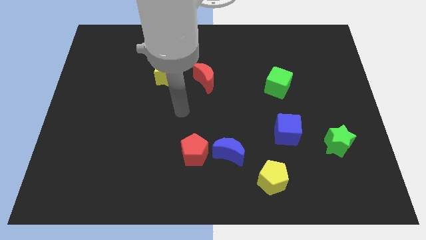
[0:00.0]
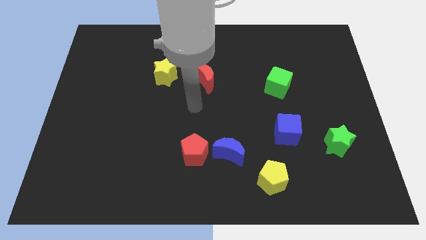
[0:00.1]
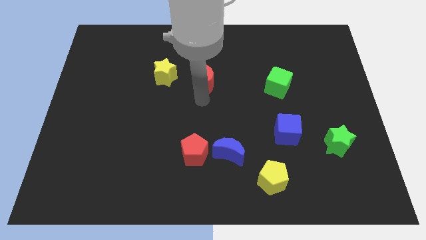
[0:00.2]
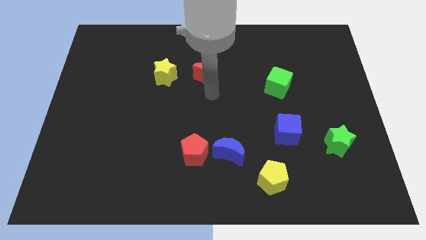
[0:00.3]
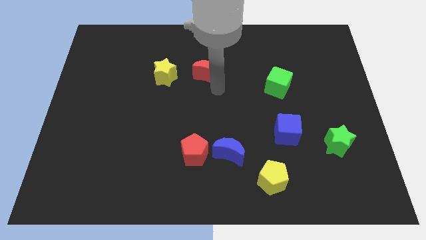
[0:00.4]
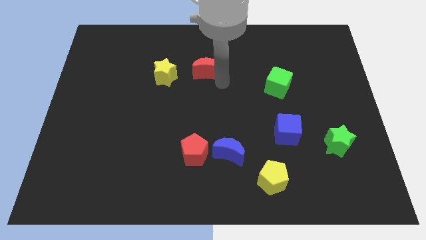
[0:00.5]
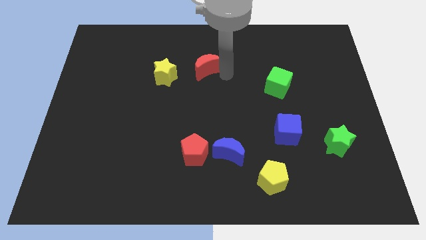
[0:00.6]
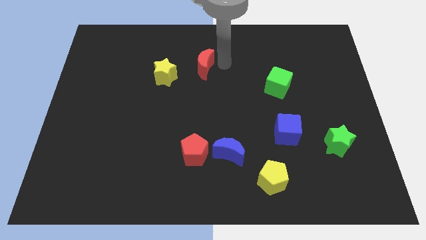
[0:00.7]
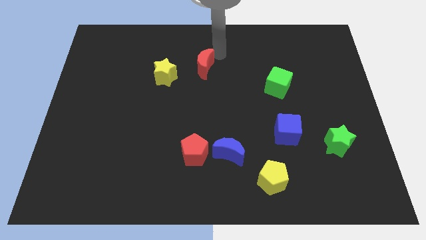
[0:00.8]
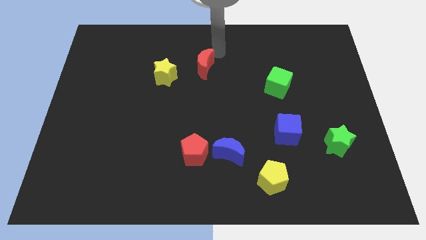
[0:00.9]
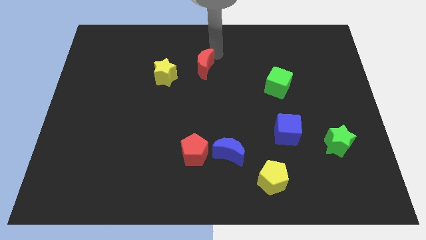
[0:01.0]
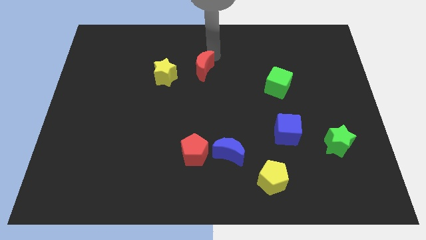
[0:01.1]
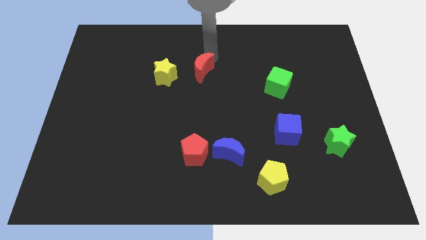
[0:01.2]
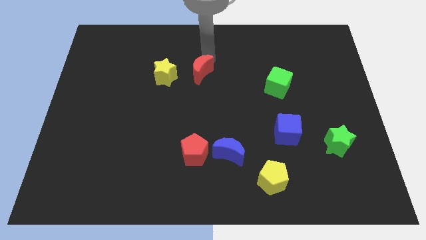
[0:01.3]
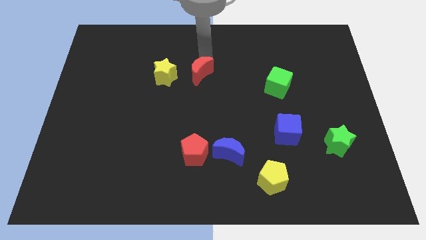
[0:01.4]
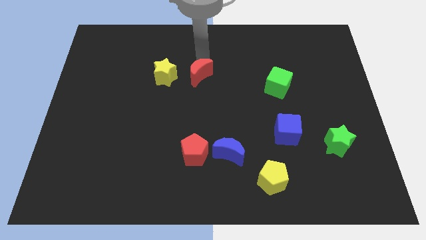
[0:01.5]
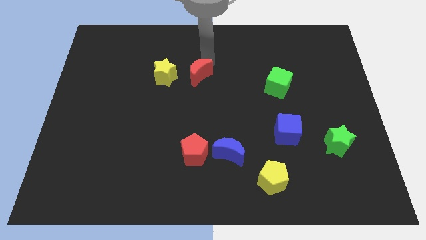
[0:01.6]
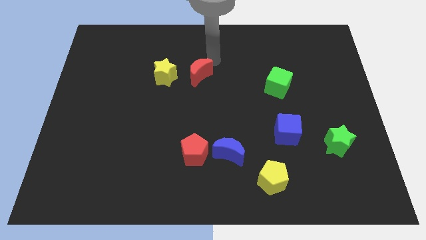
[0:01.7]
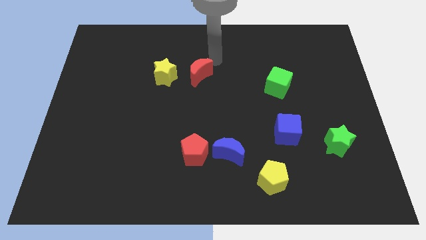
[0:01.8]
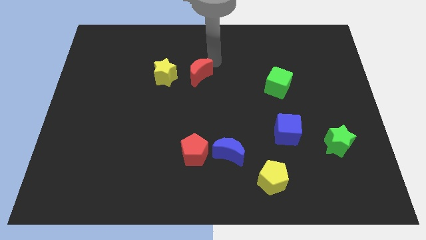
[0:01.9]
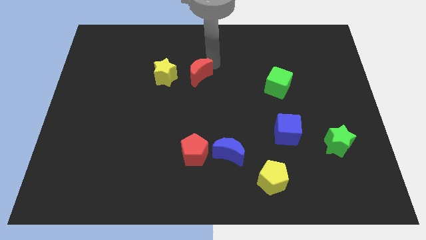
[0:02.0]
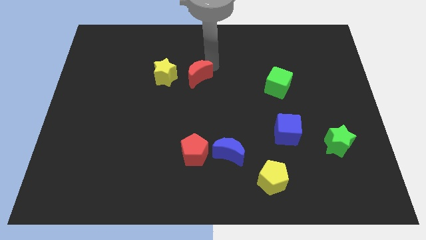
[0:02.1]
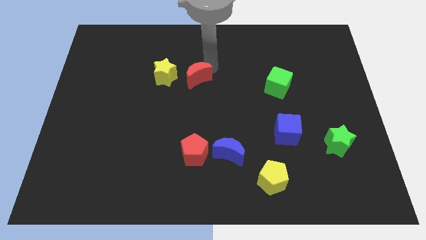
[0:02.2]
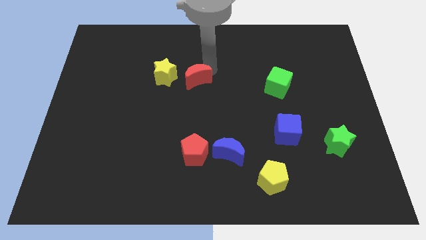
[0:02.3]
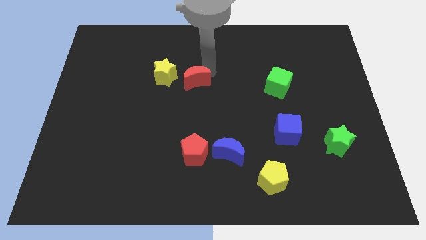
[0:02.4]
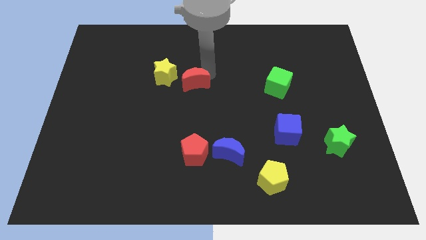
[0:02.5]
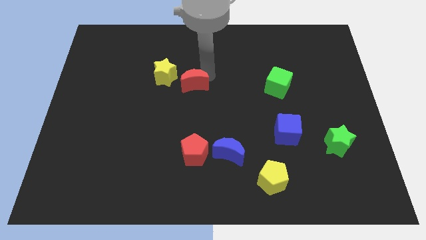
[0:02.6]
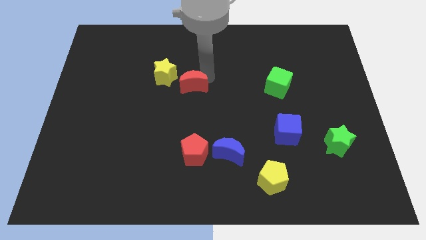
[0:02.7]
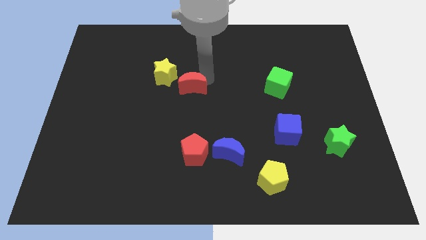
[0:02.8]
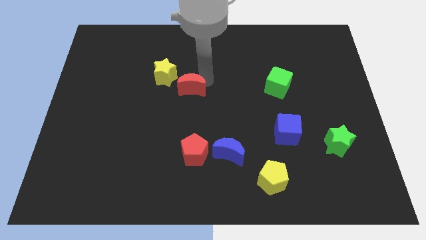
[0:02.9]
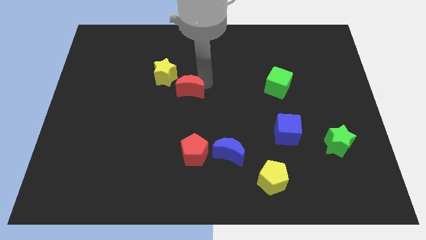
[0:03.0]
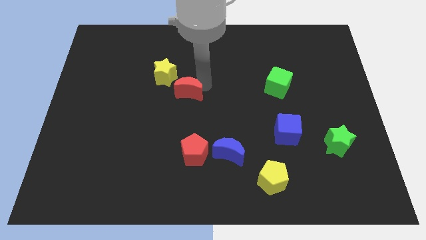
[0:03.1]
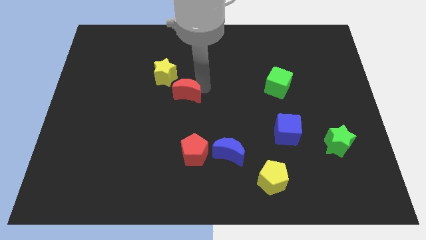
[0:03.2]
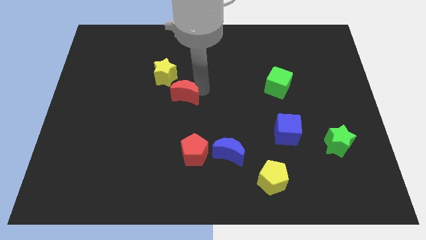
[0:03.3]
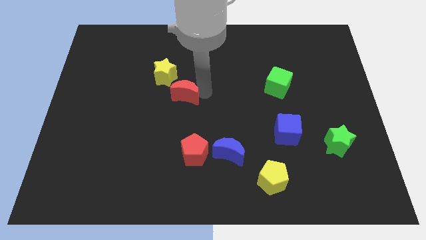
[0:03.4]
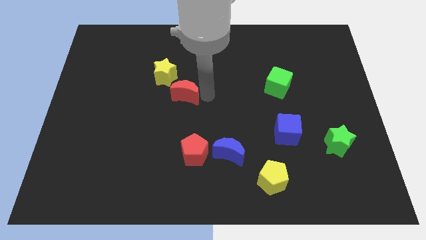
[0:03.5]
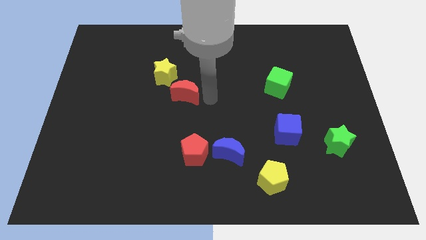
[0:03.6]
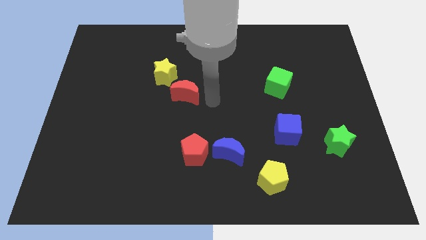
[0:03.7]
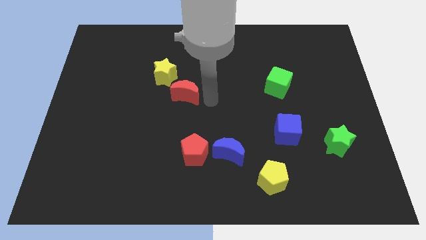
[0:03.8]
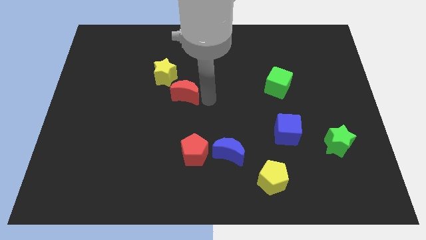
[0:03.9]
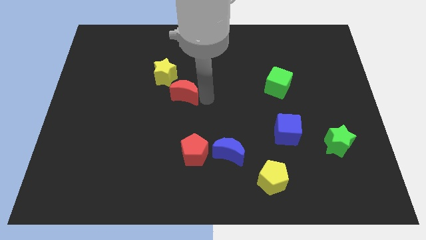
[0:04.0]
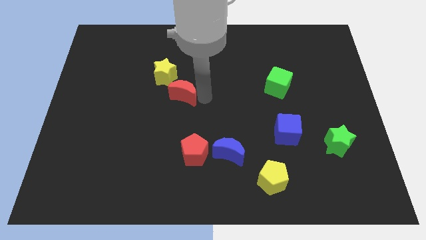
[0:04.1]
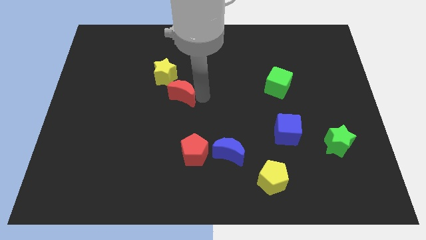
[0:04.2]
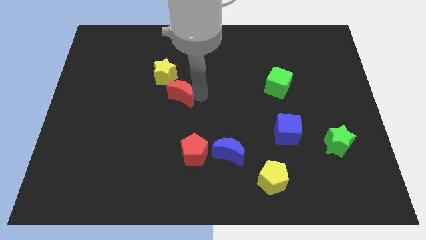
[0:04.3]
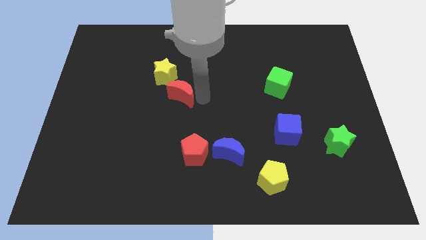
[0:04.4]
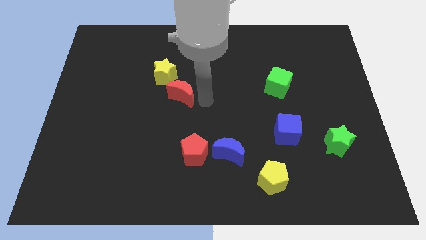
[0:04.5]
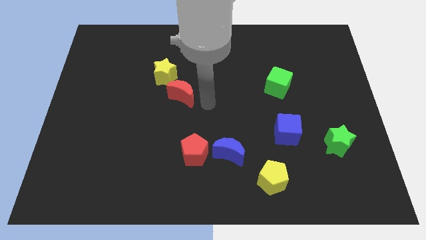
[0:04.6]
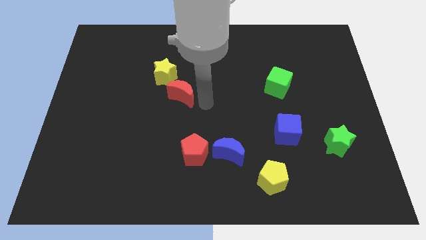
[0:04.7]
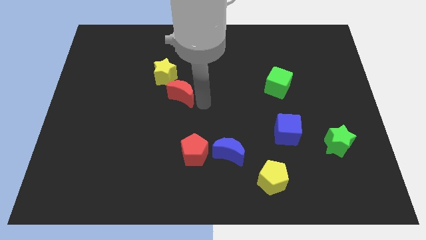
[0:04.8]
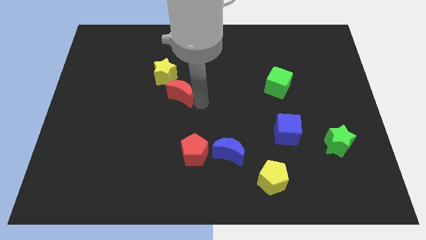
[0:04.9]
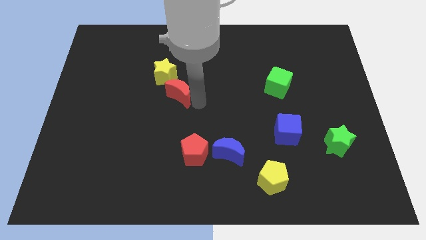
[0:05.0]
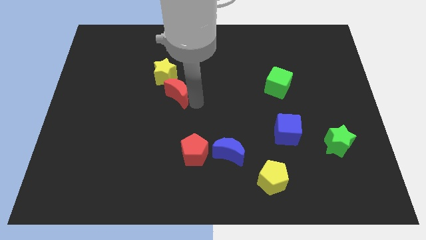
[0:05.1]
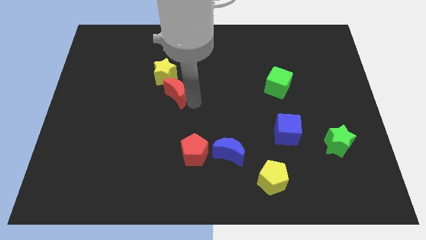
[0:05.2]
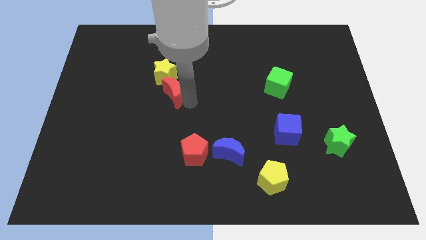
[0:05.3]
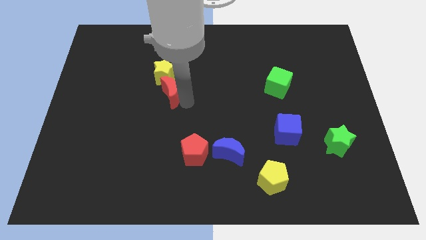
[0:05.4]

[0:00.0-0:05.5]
slide the red moon somewhat to the left

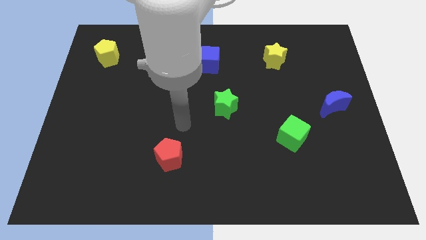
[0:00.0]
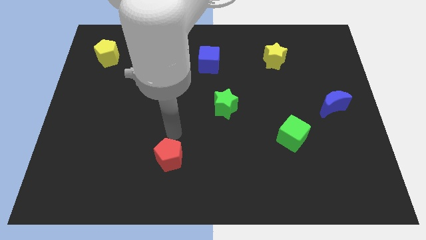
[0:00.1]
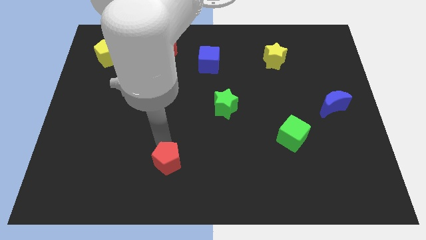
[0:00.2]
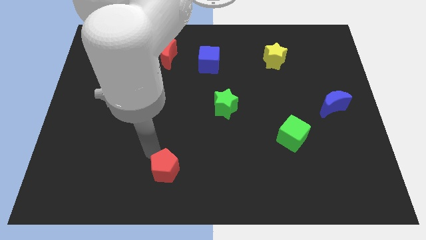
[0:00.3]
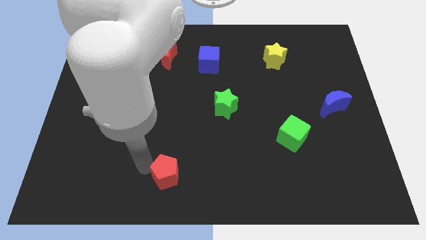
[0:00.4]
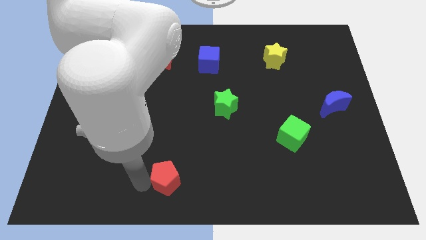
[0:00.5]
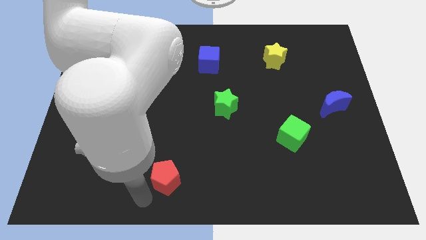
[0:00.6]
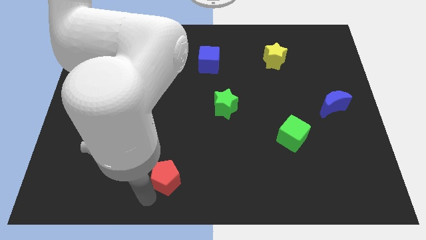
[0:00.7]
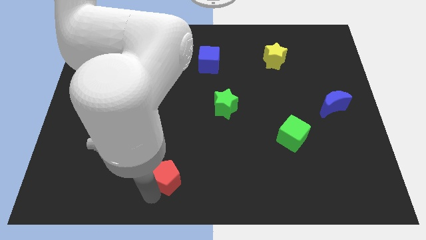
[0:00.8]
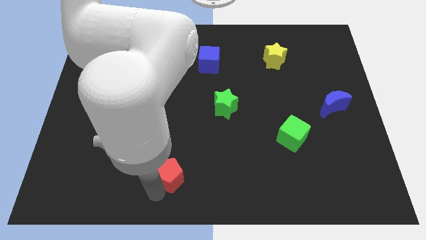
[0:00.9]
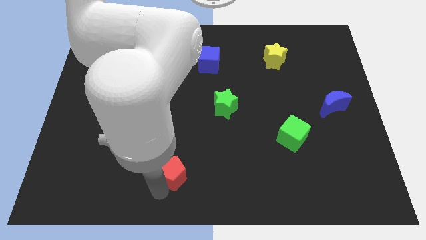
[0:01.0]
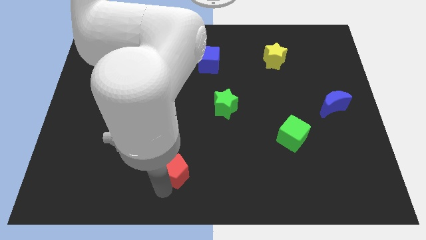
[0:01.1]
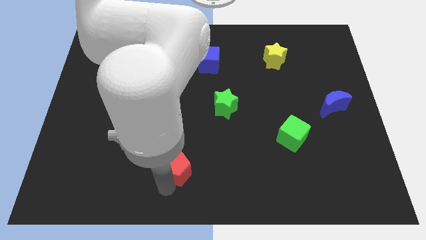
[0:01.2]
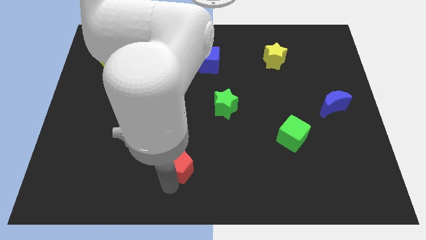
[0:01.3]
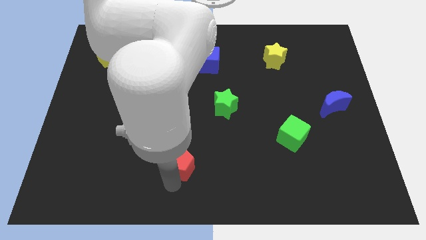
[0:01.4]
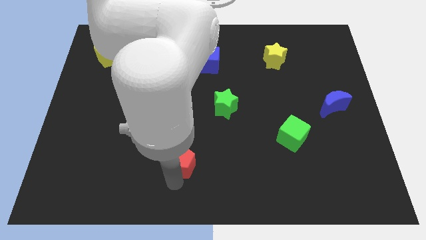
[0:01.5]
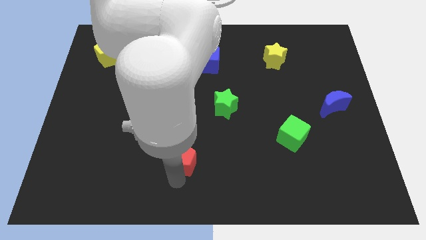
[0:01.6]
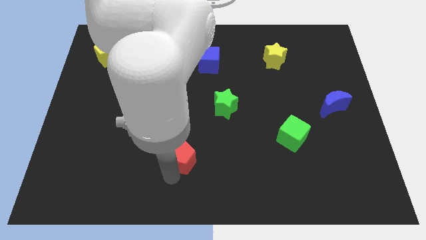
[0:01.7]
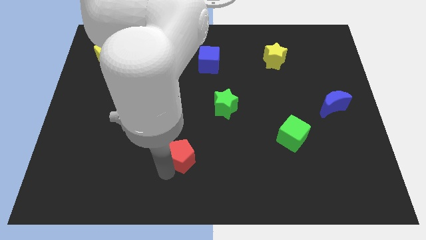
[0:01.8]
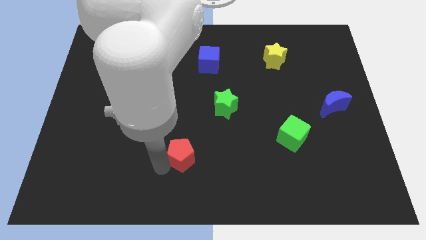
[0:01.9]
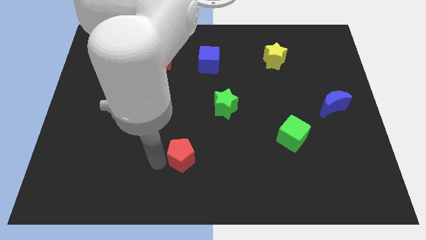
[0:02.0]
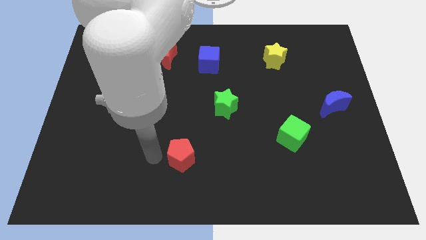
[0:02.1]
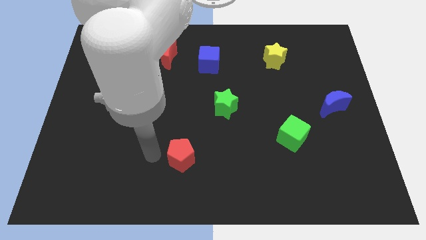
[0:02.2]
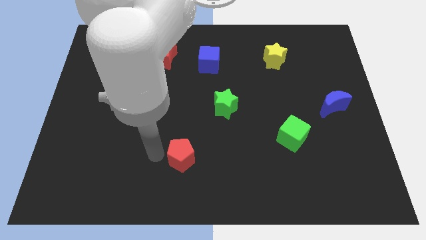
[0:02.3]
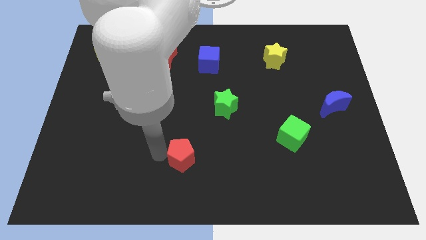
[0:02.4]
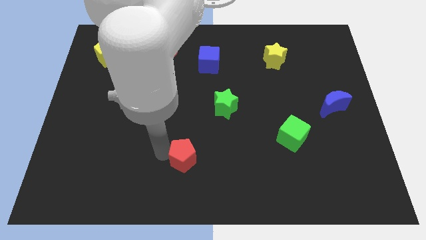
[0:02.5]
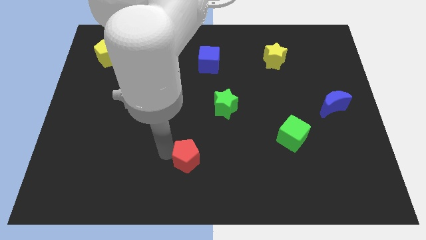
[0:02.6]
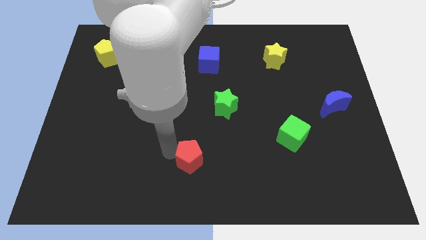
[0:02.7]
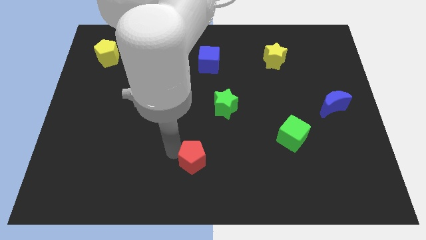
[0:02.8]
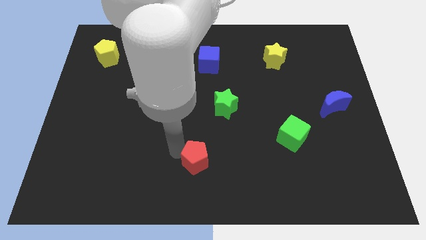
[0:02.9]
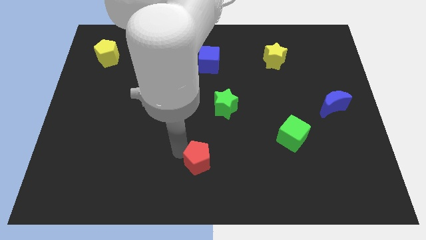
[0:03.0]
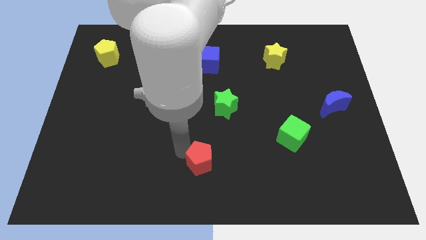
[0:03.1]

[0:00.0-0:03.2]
move the red pentagon a little bit to the right
